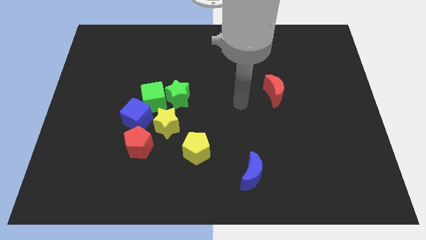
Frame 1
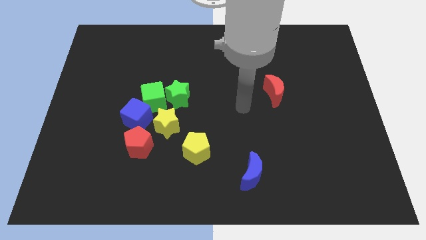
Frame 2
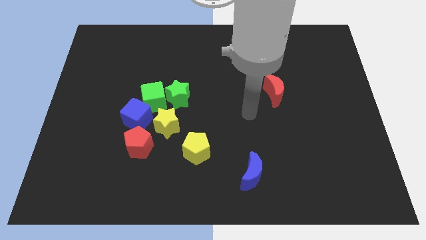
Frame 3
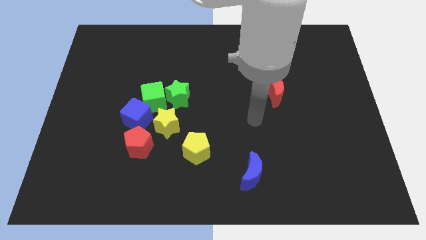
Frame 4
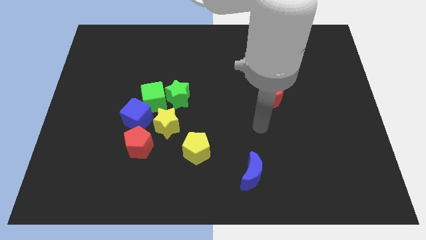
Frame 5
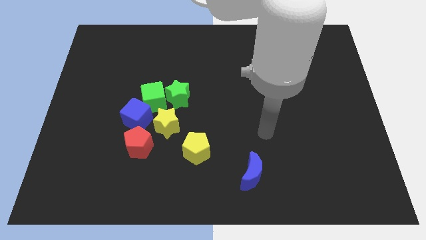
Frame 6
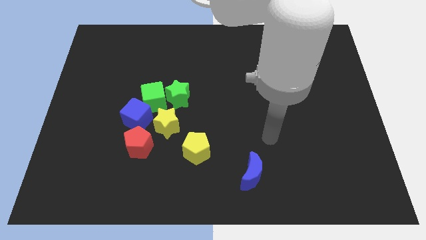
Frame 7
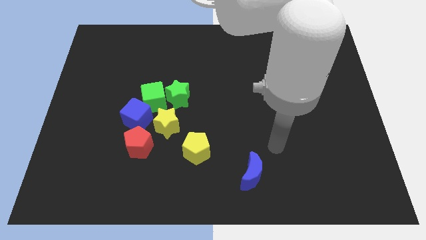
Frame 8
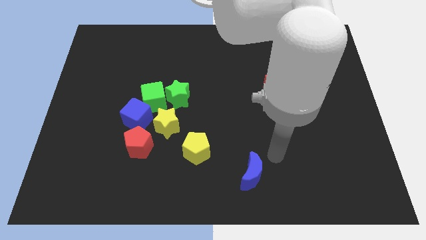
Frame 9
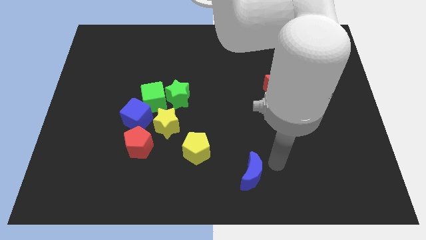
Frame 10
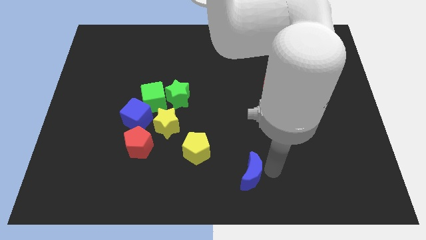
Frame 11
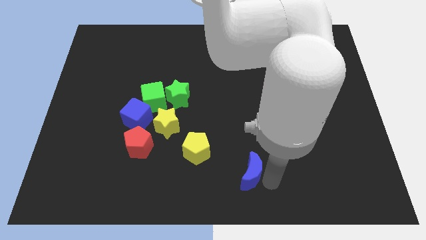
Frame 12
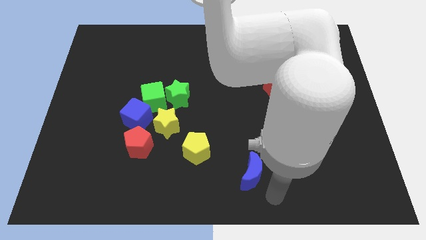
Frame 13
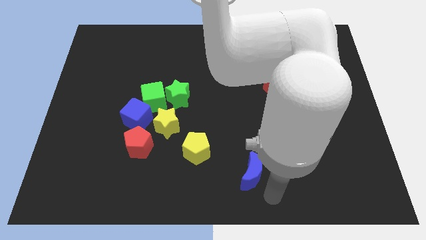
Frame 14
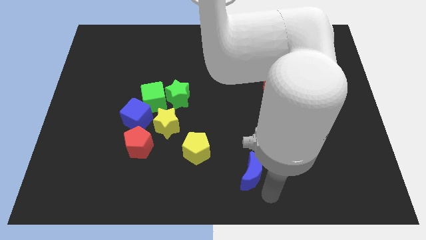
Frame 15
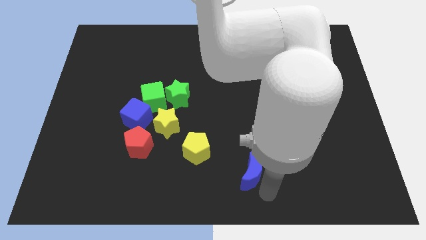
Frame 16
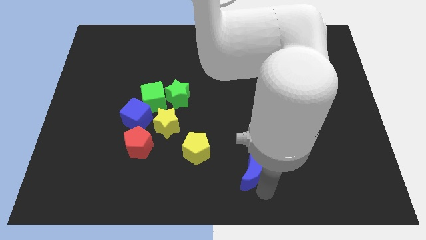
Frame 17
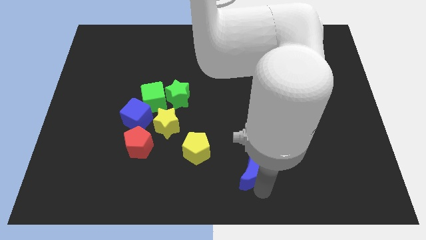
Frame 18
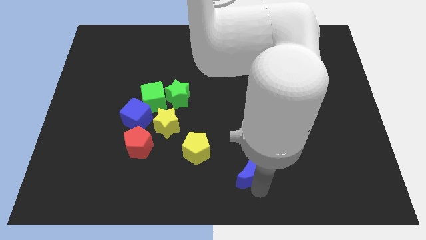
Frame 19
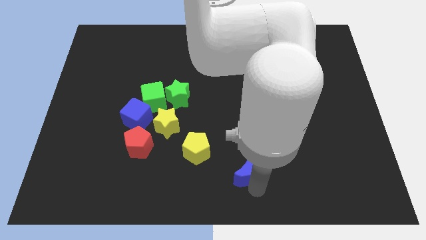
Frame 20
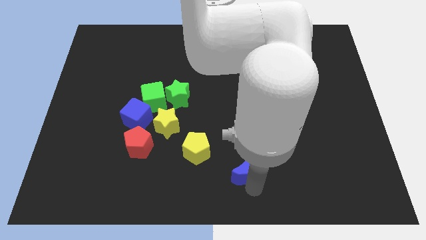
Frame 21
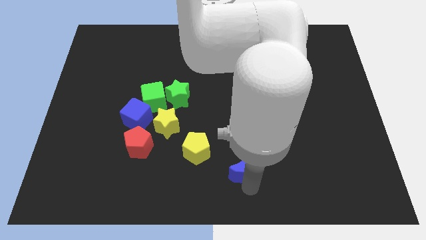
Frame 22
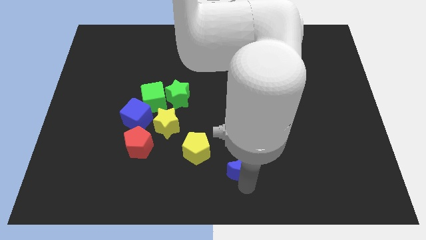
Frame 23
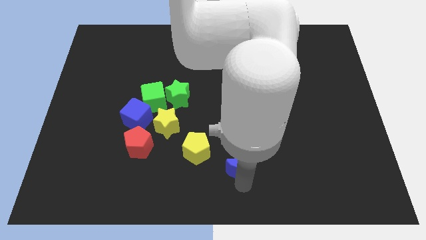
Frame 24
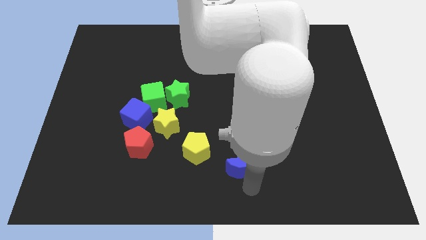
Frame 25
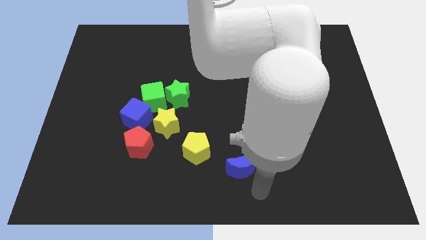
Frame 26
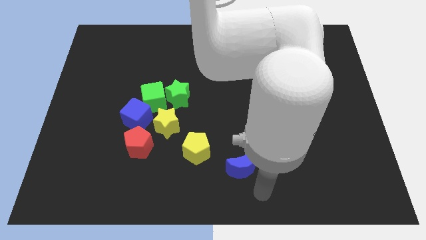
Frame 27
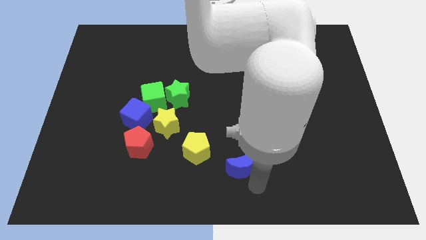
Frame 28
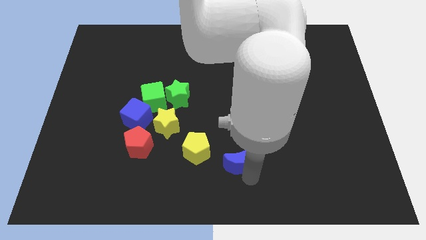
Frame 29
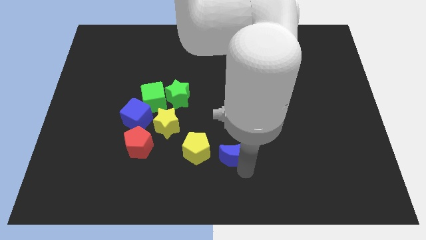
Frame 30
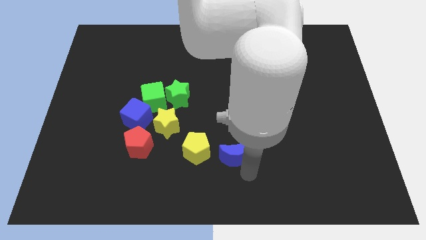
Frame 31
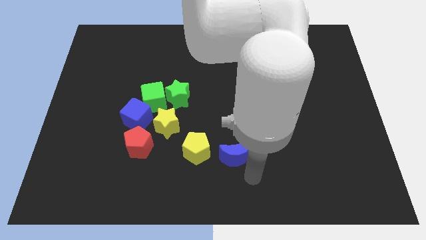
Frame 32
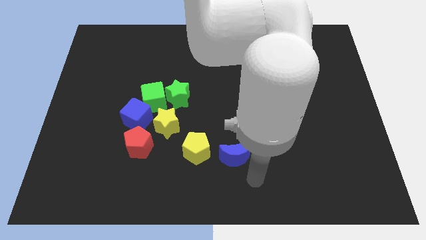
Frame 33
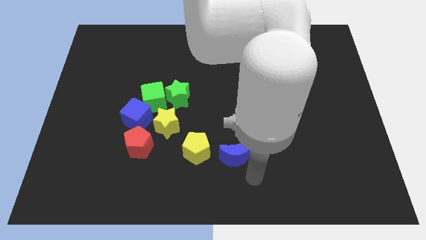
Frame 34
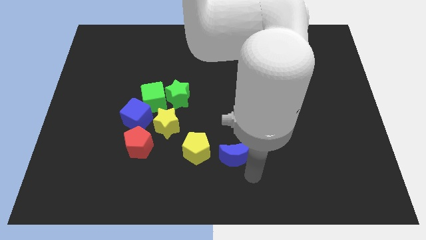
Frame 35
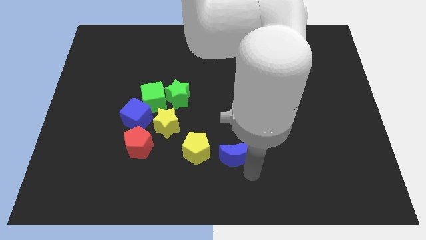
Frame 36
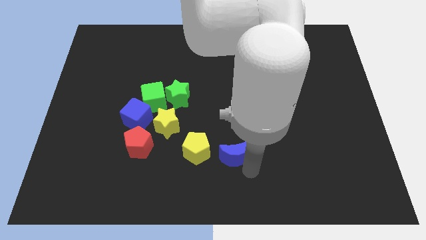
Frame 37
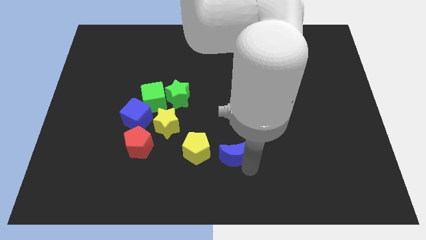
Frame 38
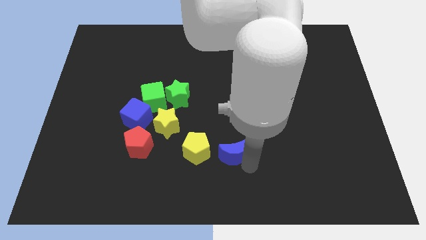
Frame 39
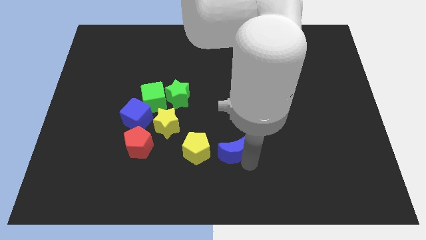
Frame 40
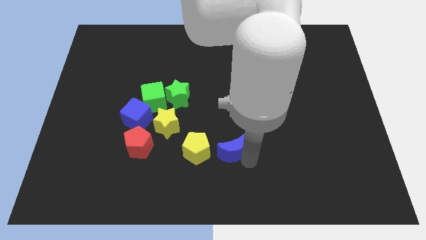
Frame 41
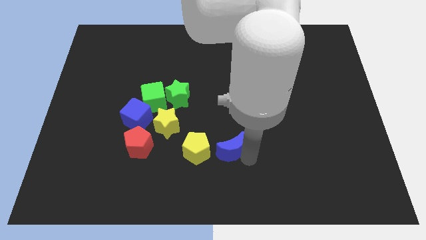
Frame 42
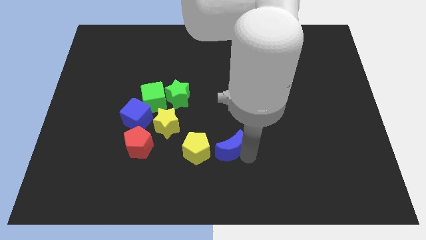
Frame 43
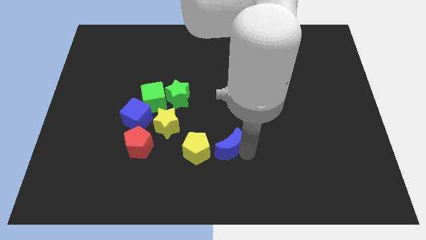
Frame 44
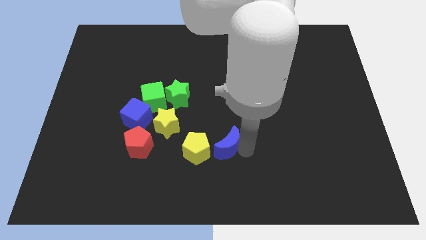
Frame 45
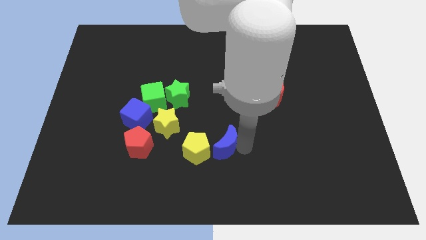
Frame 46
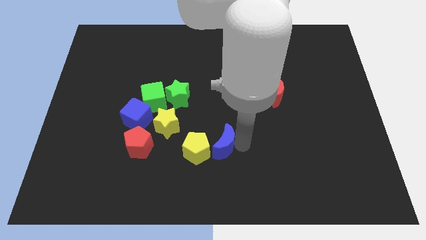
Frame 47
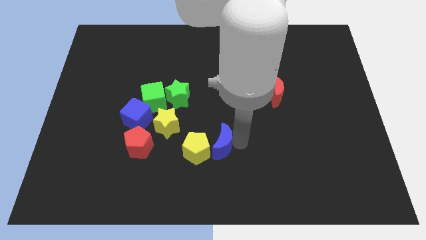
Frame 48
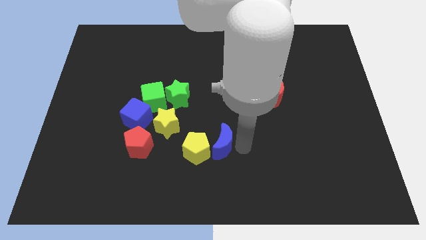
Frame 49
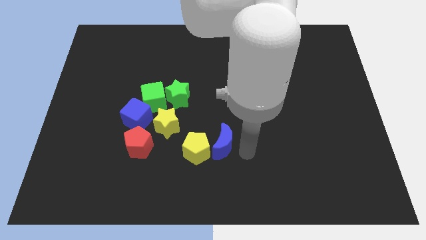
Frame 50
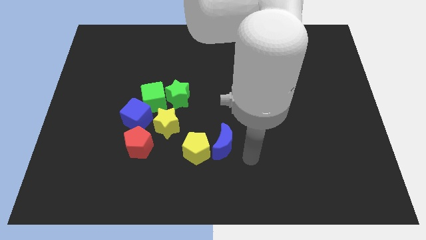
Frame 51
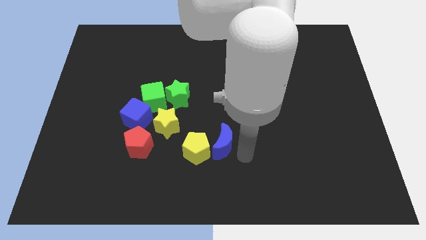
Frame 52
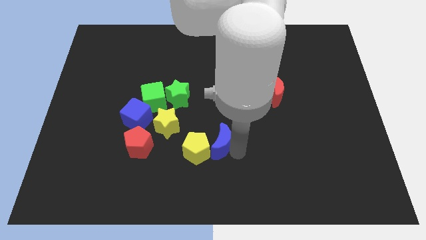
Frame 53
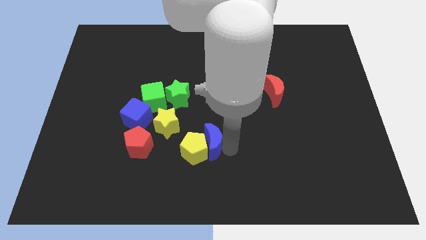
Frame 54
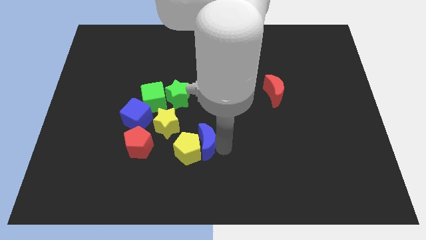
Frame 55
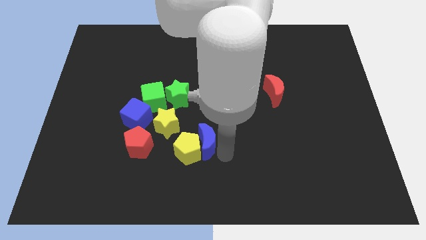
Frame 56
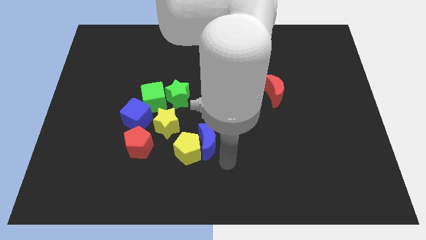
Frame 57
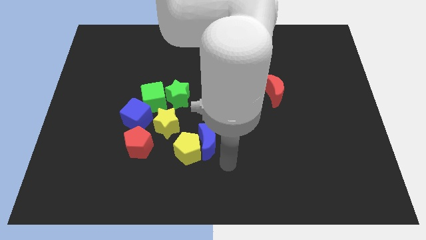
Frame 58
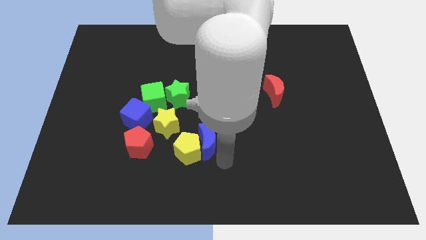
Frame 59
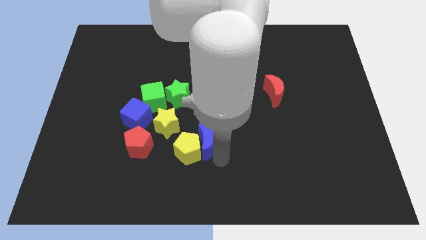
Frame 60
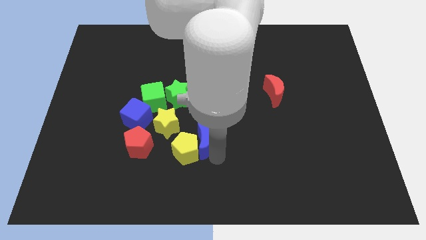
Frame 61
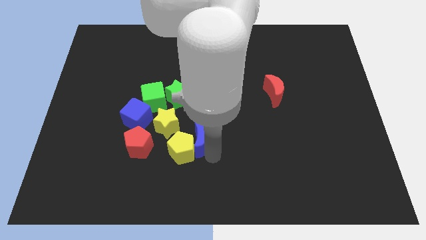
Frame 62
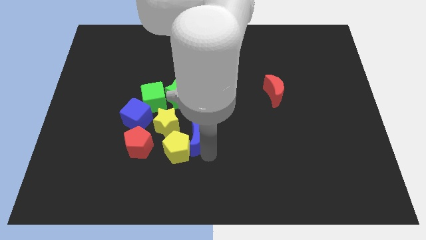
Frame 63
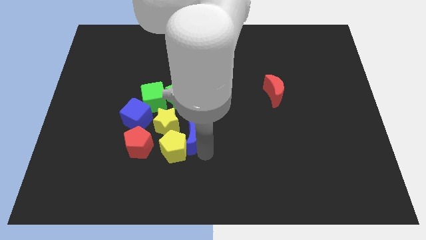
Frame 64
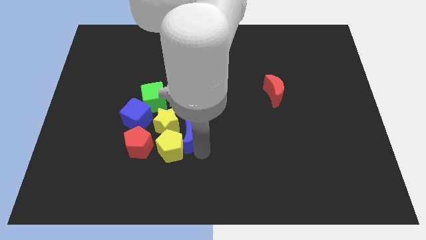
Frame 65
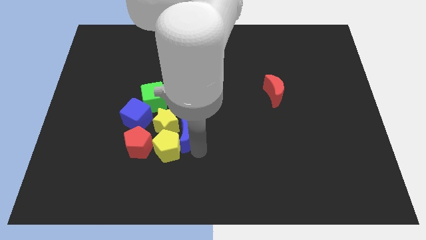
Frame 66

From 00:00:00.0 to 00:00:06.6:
push the blue moon just right of the blue cube
